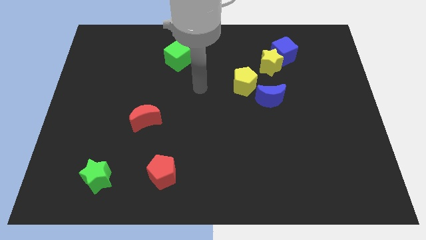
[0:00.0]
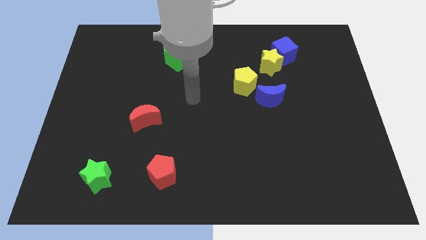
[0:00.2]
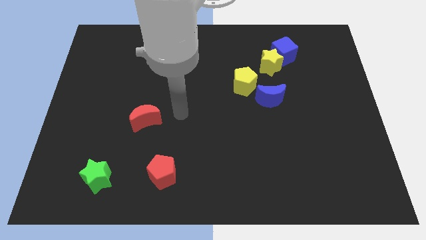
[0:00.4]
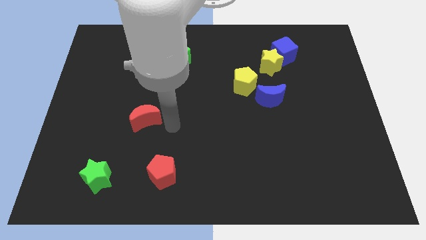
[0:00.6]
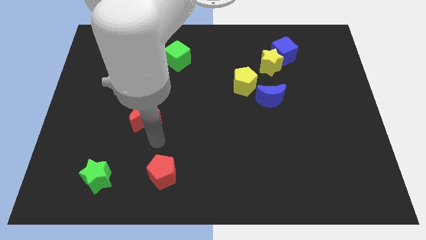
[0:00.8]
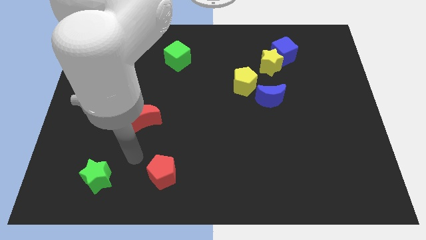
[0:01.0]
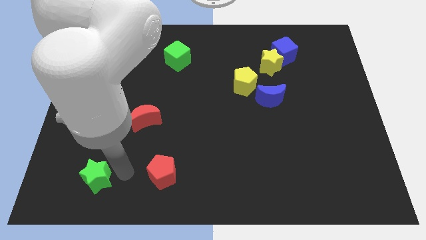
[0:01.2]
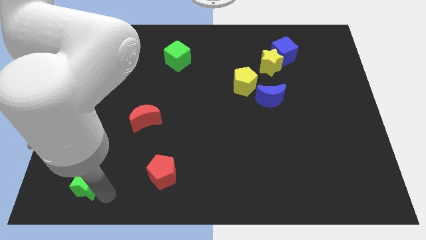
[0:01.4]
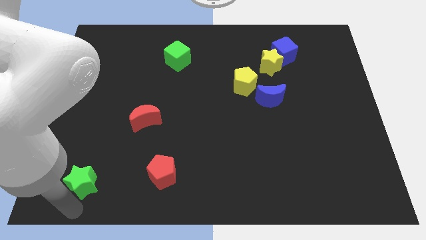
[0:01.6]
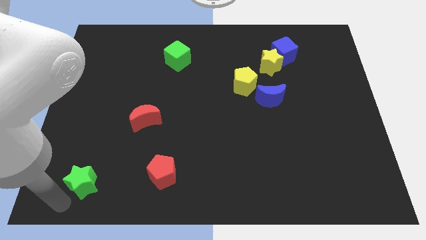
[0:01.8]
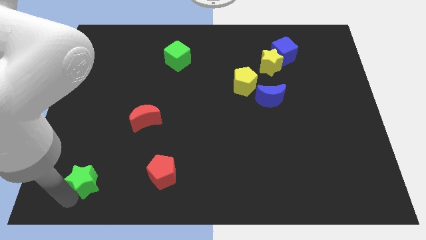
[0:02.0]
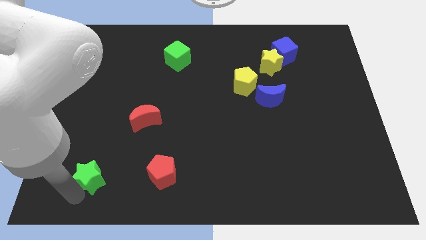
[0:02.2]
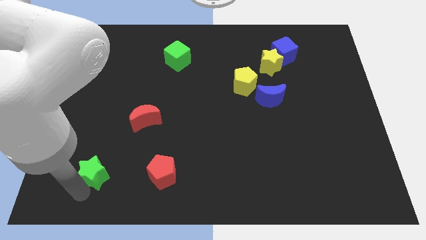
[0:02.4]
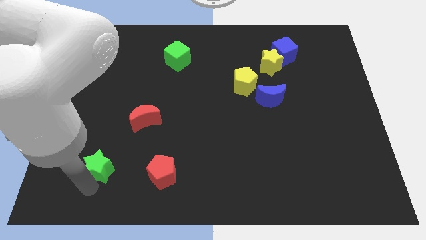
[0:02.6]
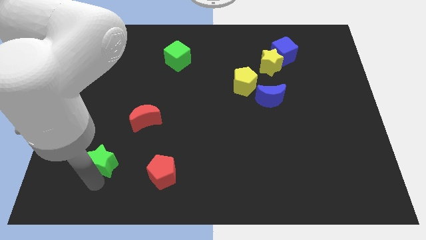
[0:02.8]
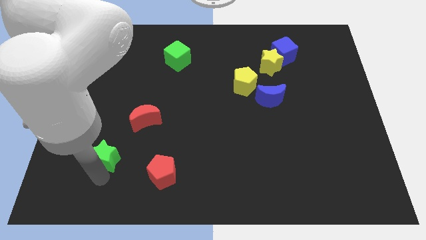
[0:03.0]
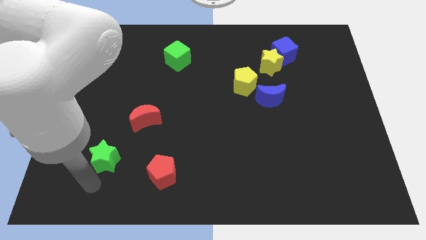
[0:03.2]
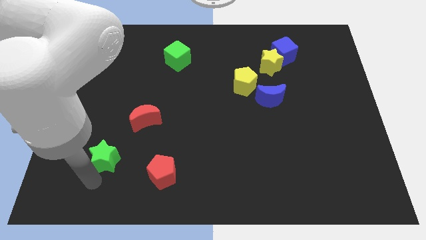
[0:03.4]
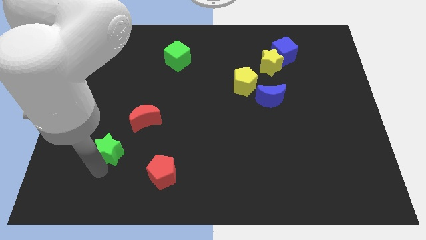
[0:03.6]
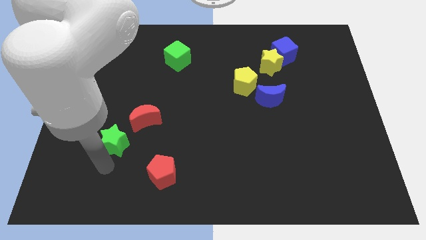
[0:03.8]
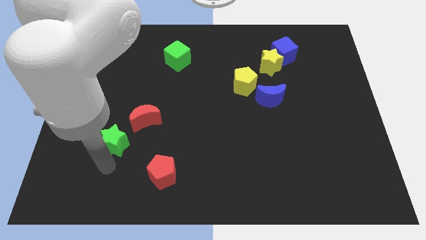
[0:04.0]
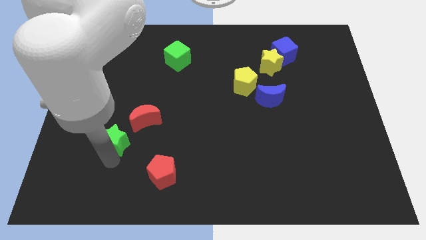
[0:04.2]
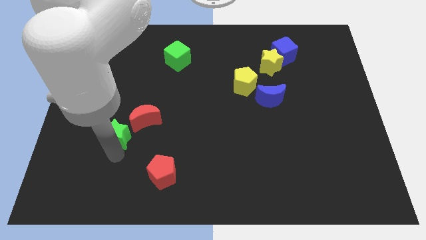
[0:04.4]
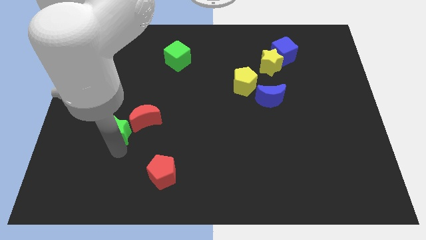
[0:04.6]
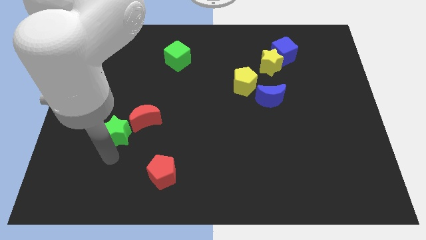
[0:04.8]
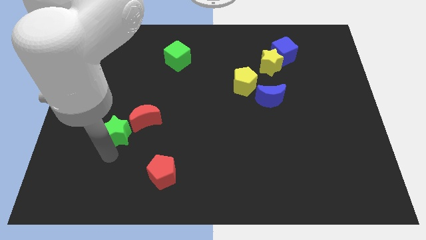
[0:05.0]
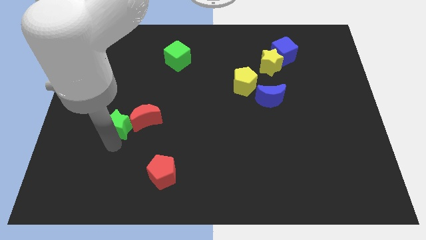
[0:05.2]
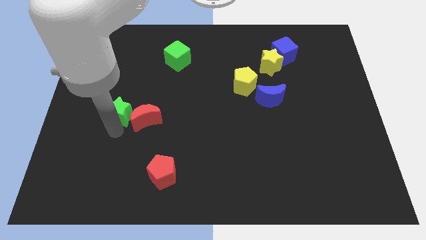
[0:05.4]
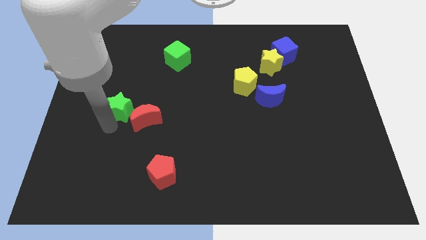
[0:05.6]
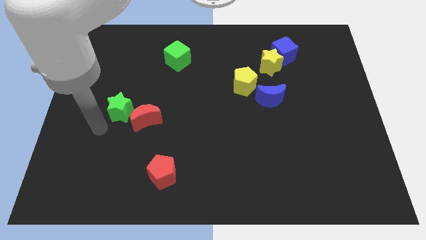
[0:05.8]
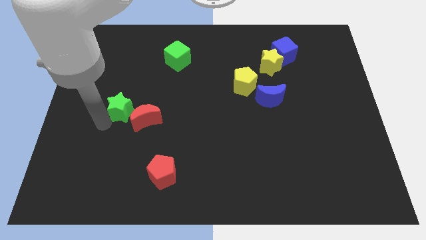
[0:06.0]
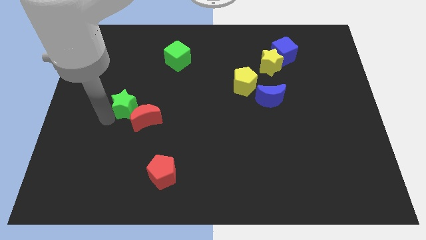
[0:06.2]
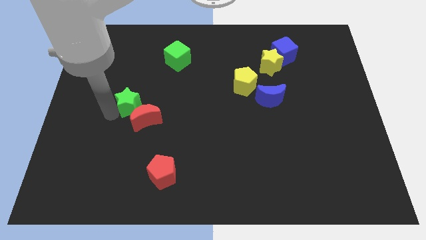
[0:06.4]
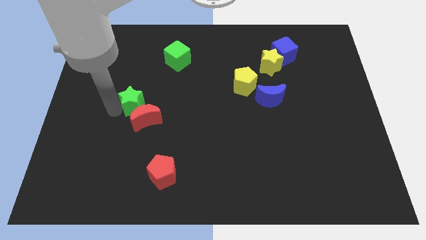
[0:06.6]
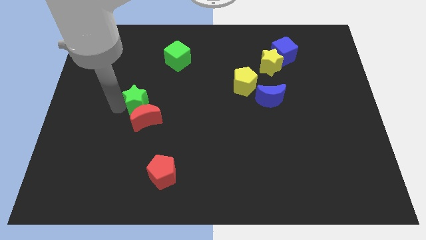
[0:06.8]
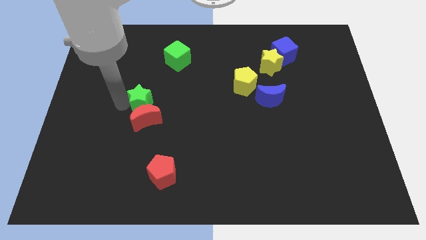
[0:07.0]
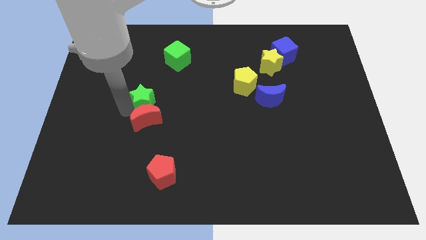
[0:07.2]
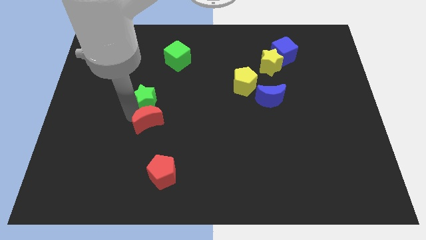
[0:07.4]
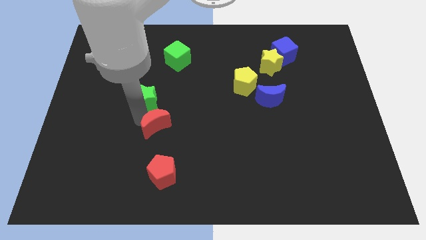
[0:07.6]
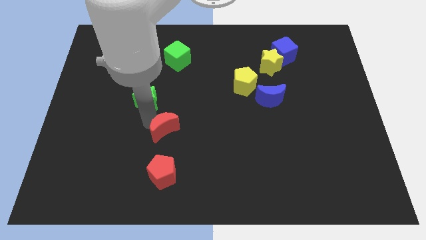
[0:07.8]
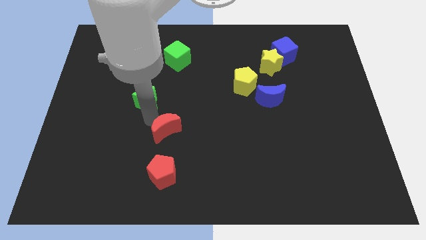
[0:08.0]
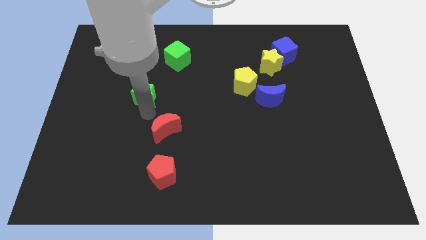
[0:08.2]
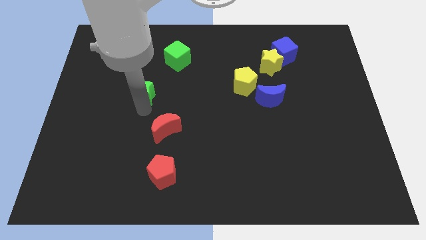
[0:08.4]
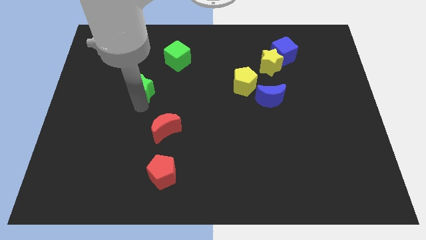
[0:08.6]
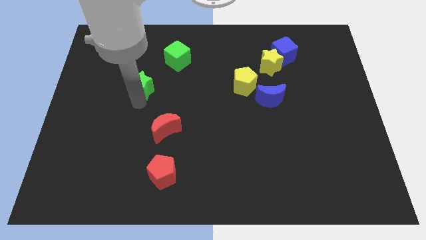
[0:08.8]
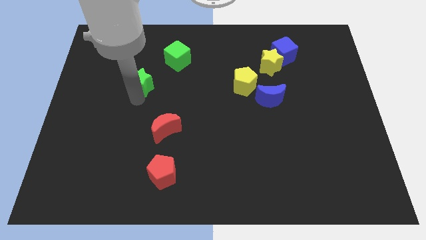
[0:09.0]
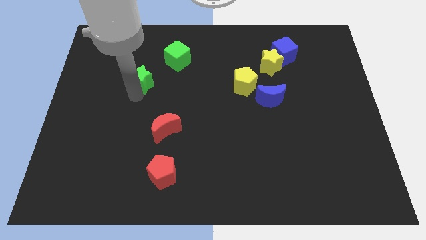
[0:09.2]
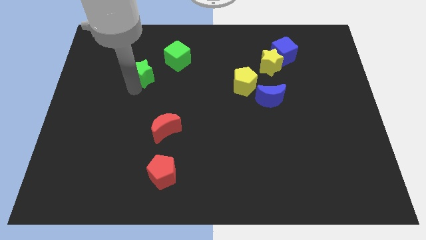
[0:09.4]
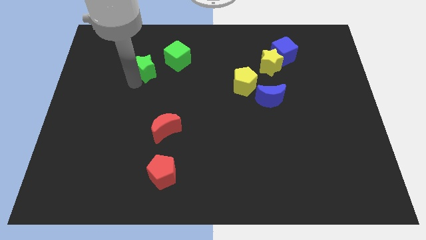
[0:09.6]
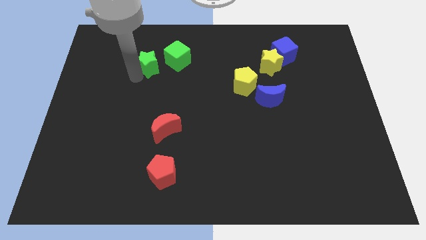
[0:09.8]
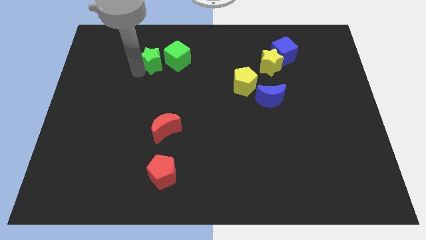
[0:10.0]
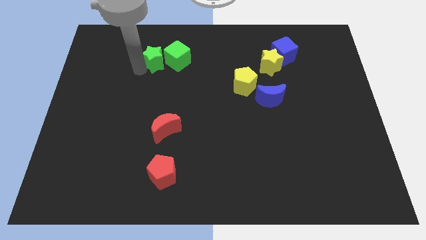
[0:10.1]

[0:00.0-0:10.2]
put the green star next to the green cube
